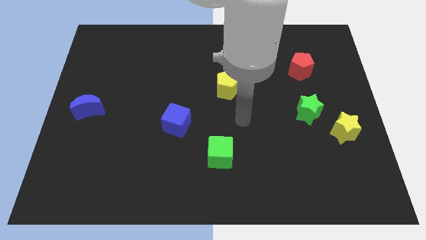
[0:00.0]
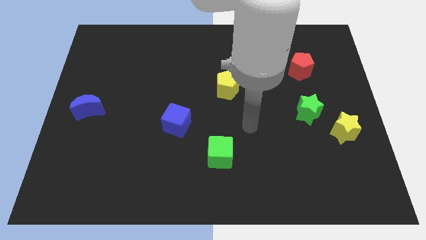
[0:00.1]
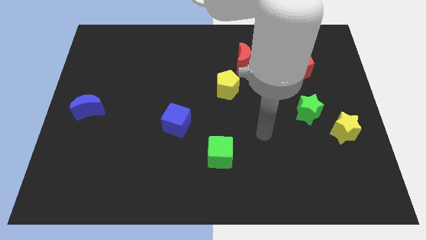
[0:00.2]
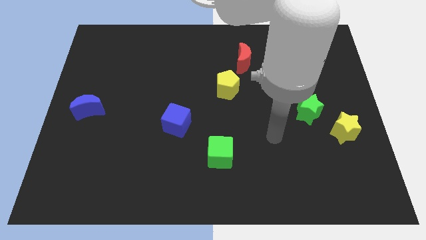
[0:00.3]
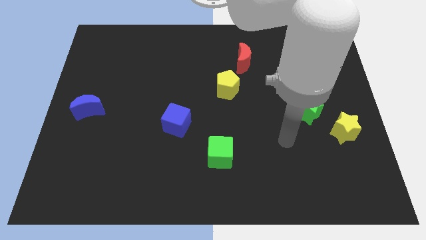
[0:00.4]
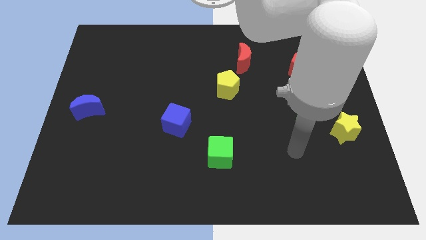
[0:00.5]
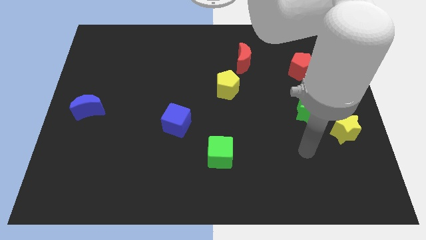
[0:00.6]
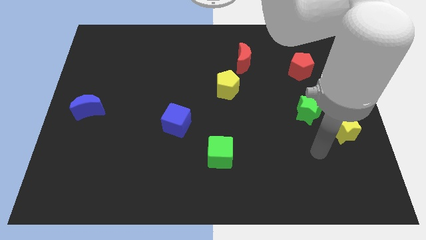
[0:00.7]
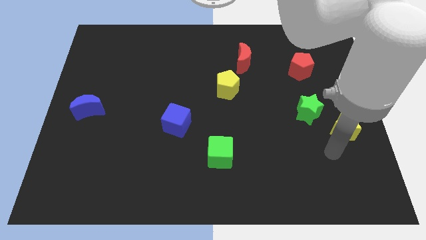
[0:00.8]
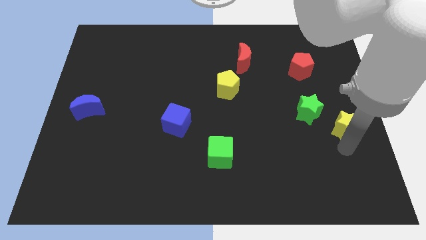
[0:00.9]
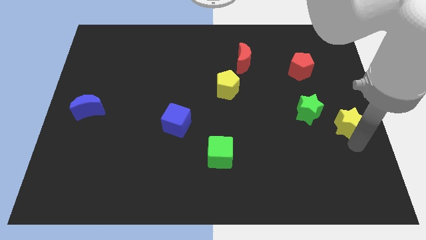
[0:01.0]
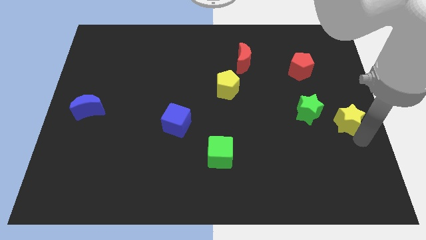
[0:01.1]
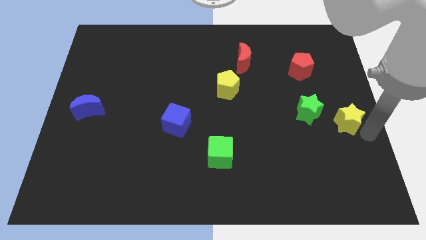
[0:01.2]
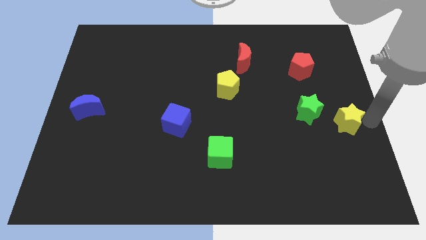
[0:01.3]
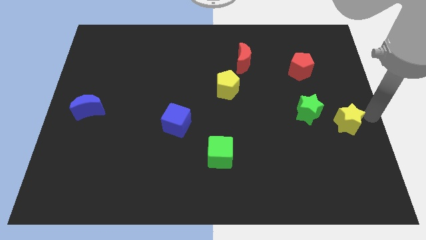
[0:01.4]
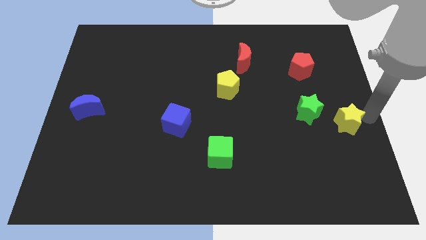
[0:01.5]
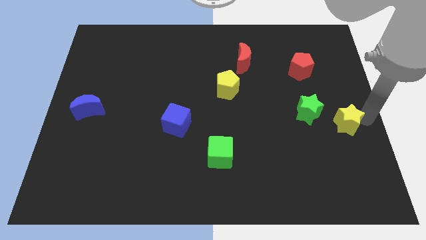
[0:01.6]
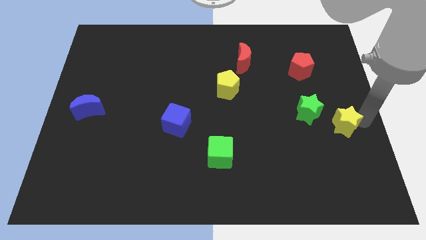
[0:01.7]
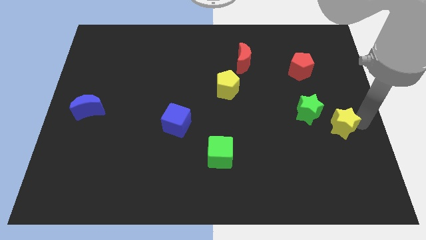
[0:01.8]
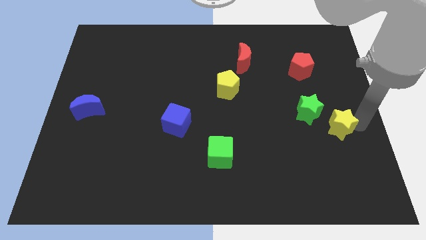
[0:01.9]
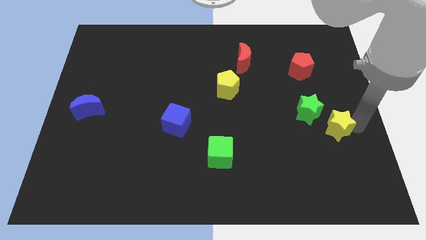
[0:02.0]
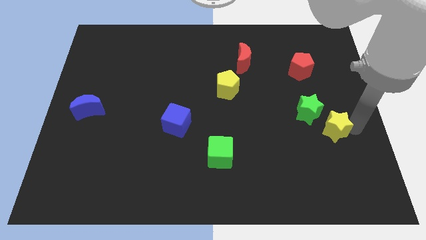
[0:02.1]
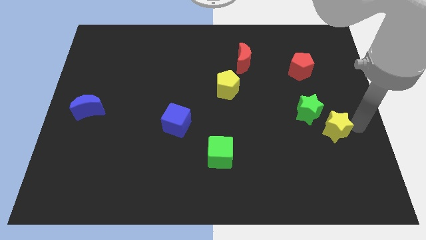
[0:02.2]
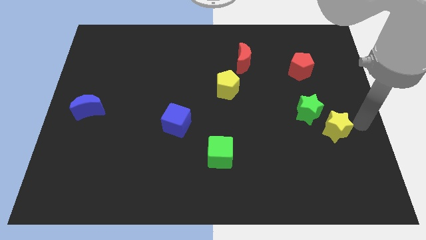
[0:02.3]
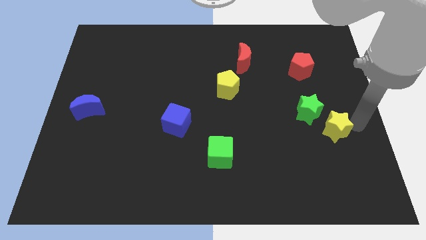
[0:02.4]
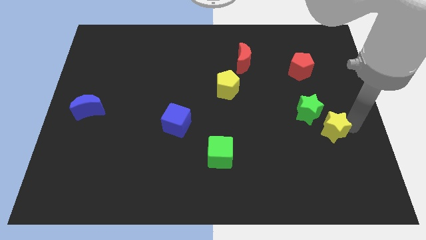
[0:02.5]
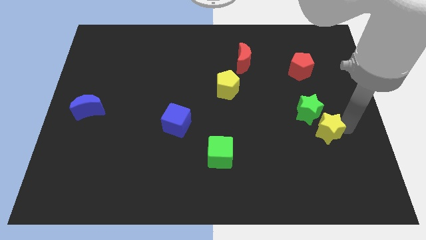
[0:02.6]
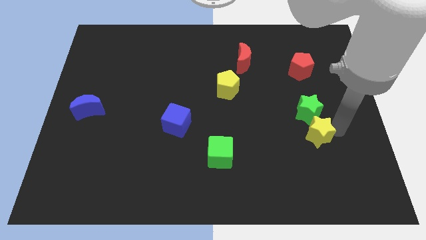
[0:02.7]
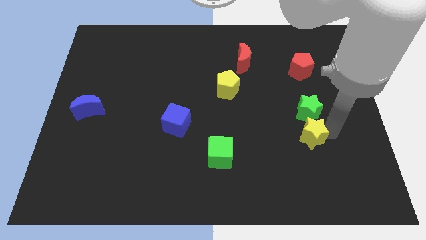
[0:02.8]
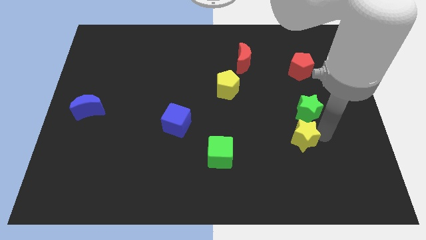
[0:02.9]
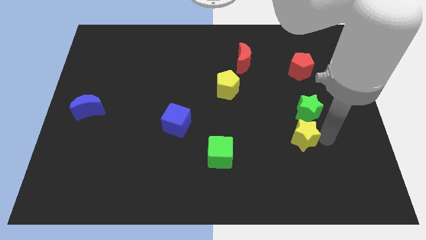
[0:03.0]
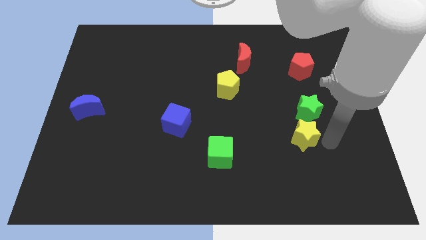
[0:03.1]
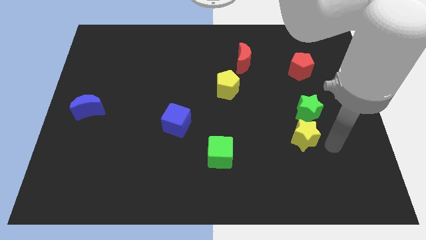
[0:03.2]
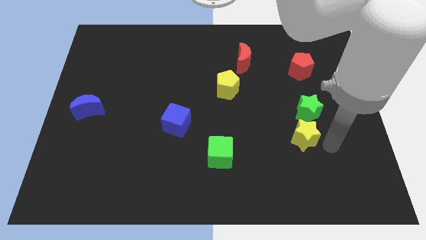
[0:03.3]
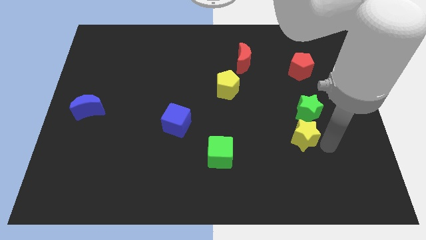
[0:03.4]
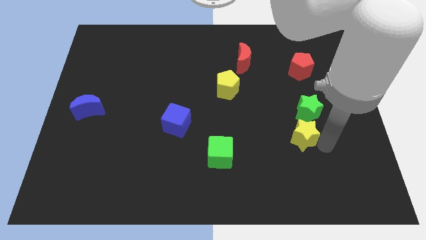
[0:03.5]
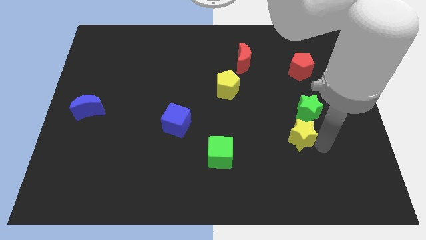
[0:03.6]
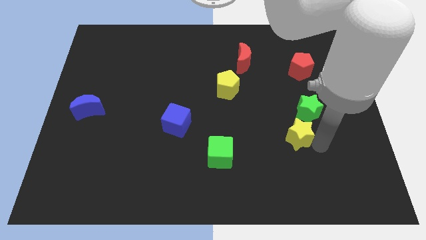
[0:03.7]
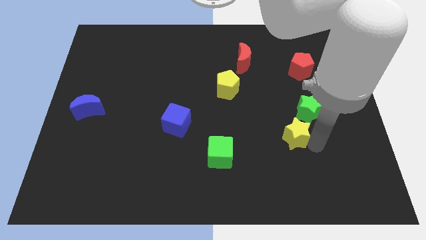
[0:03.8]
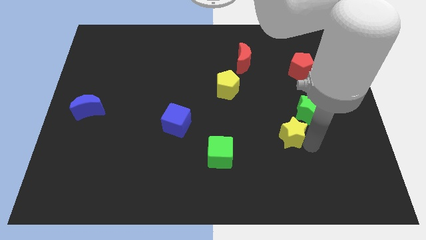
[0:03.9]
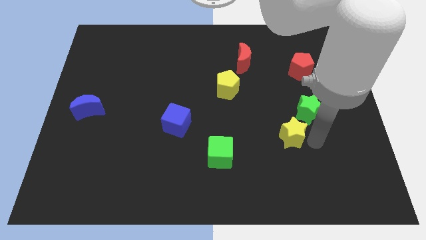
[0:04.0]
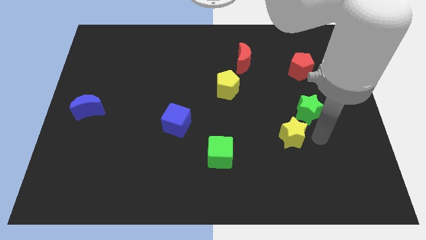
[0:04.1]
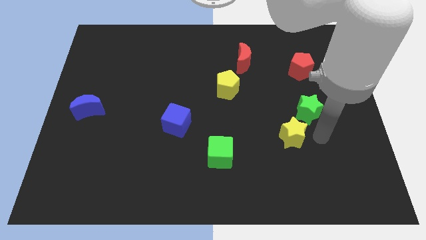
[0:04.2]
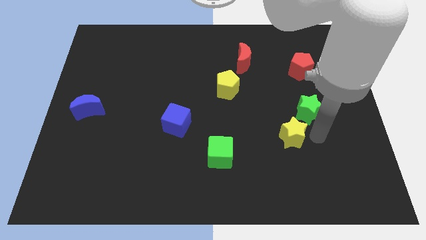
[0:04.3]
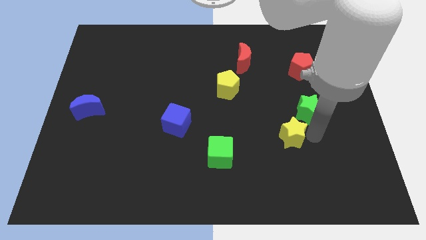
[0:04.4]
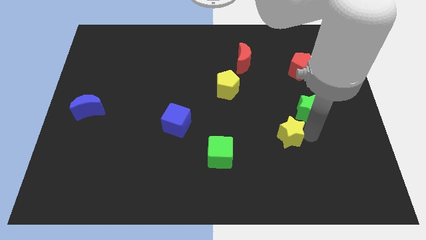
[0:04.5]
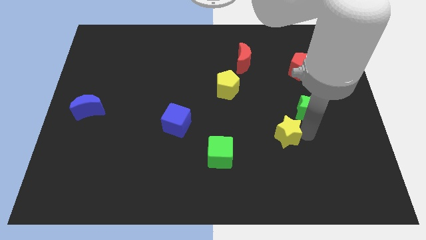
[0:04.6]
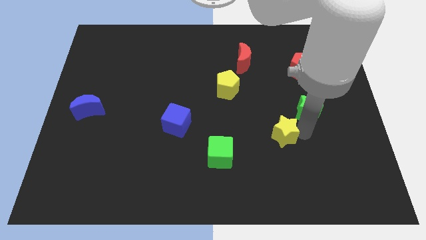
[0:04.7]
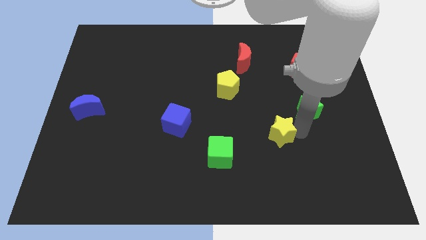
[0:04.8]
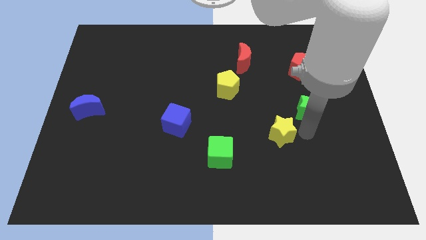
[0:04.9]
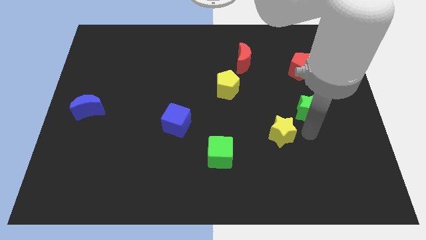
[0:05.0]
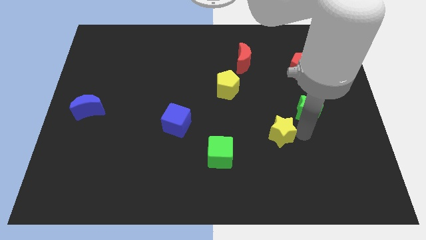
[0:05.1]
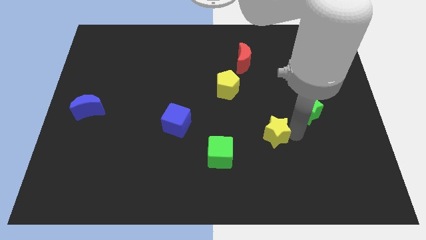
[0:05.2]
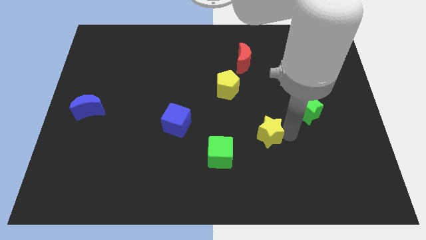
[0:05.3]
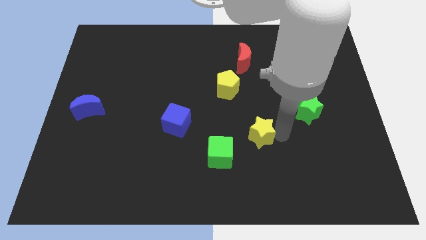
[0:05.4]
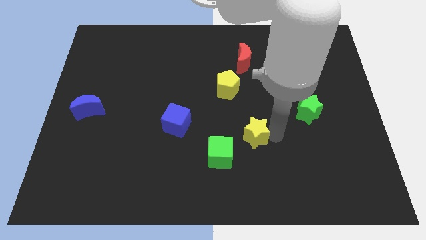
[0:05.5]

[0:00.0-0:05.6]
slide the yellow star left

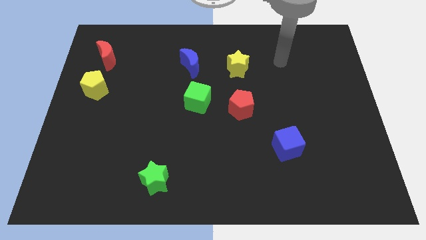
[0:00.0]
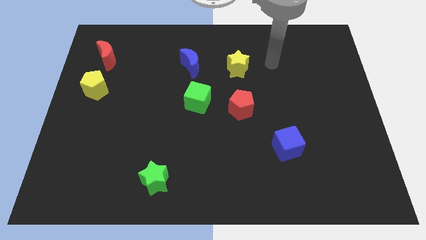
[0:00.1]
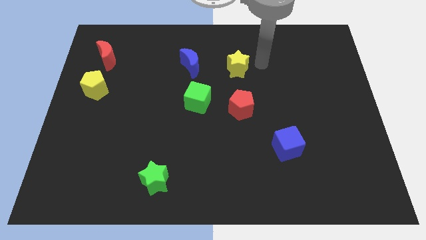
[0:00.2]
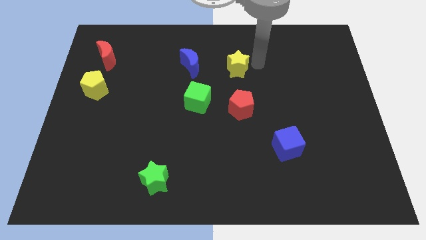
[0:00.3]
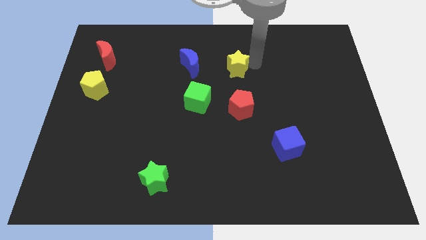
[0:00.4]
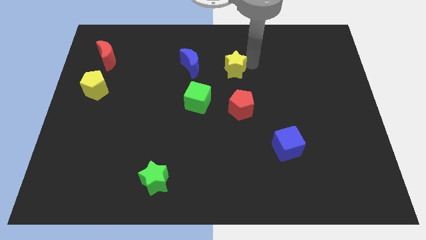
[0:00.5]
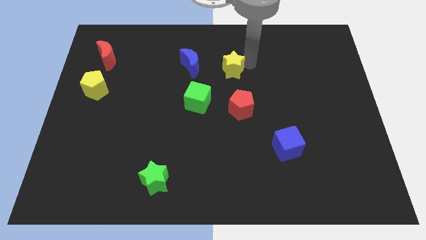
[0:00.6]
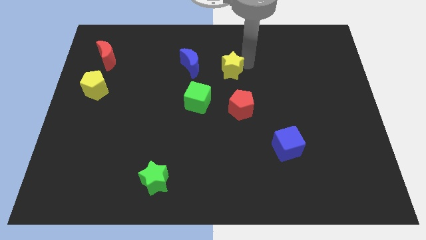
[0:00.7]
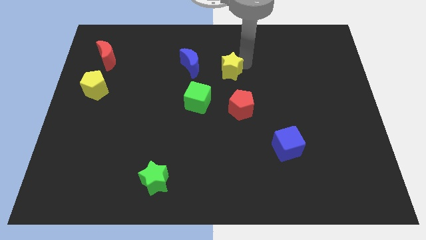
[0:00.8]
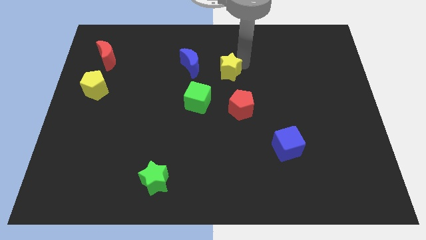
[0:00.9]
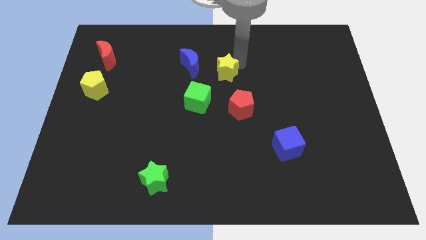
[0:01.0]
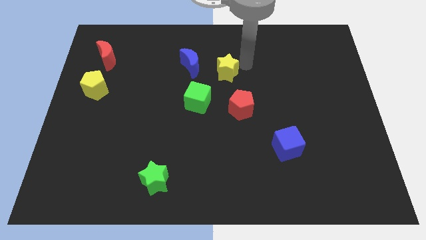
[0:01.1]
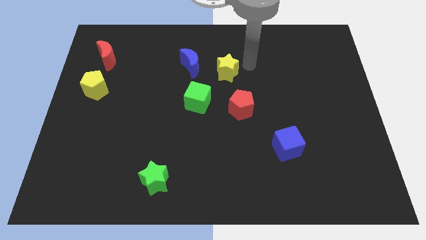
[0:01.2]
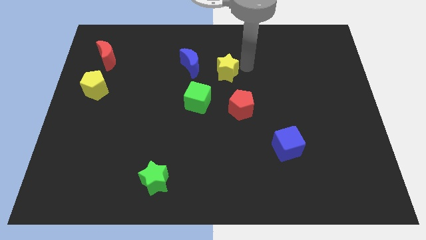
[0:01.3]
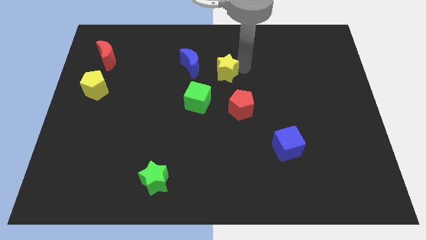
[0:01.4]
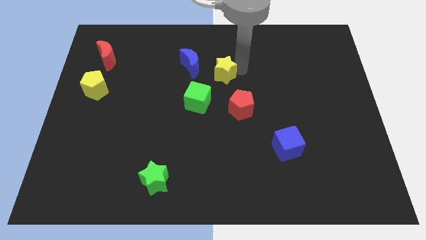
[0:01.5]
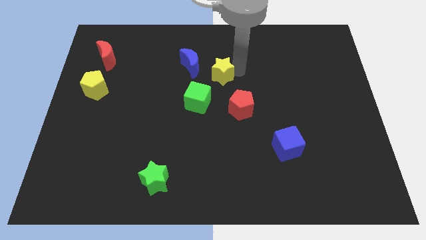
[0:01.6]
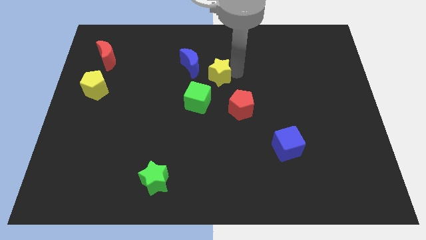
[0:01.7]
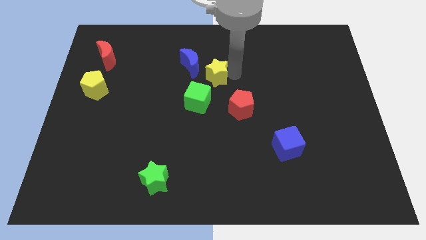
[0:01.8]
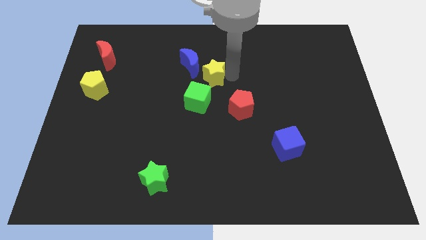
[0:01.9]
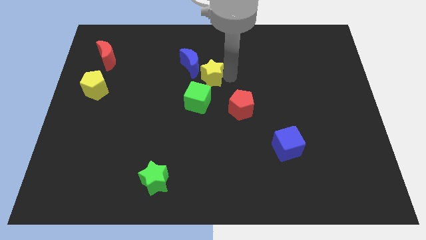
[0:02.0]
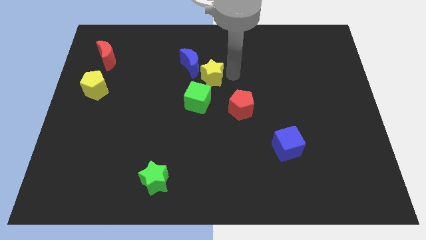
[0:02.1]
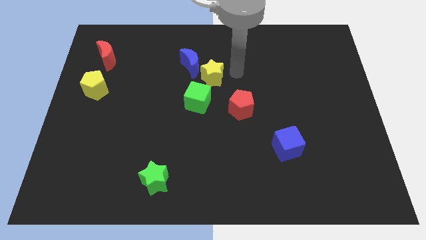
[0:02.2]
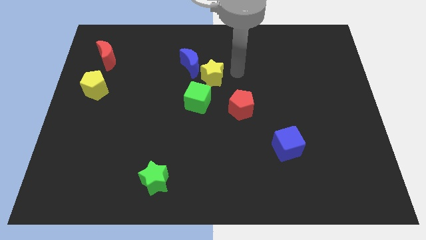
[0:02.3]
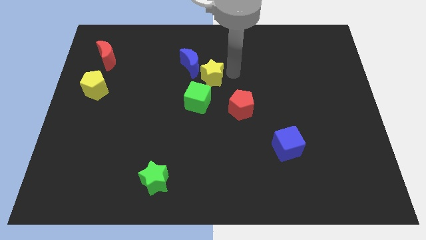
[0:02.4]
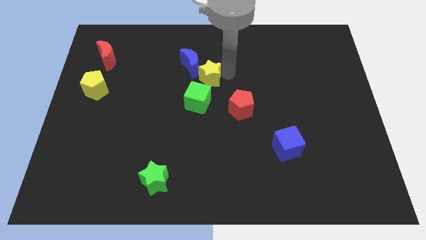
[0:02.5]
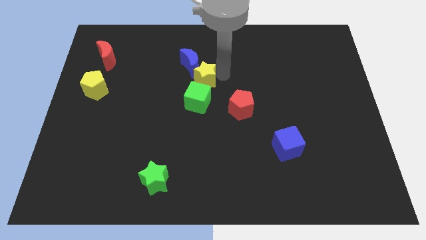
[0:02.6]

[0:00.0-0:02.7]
push the yellow star a little bit to the left
